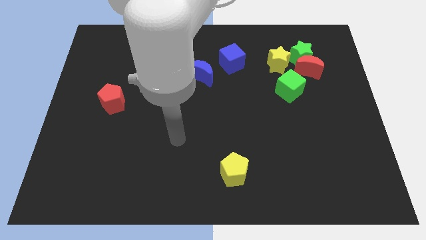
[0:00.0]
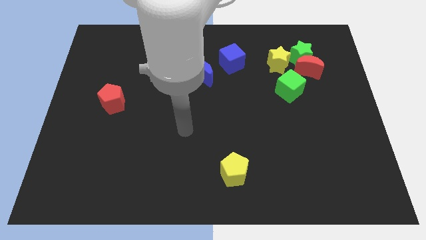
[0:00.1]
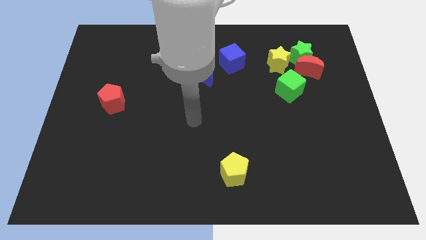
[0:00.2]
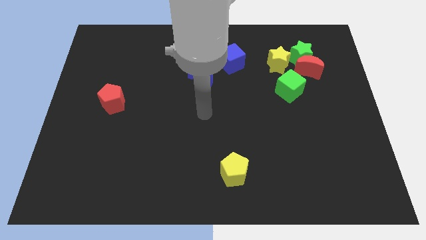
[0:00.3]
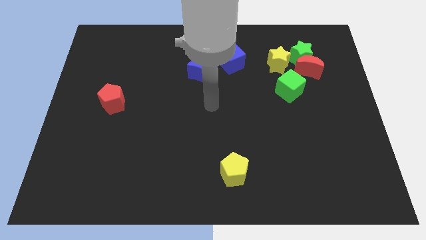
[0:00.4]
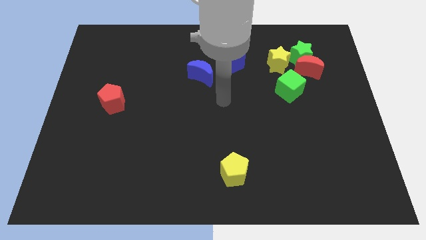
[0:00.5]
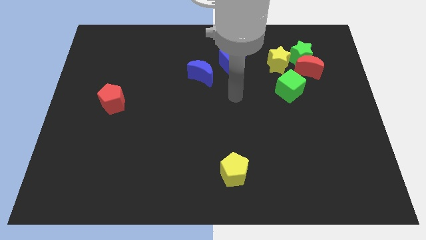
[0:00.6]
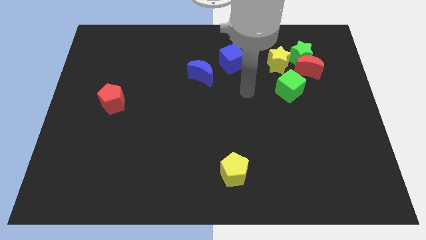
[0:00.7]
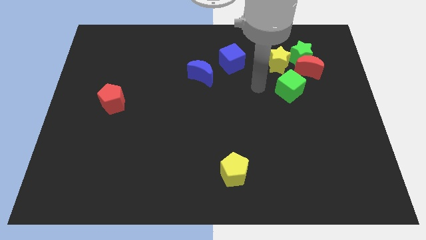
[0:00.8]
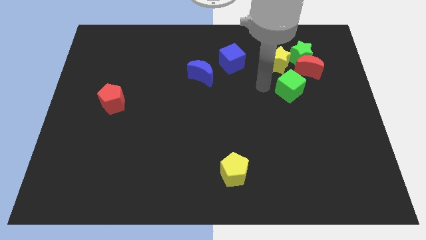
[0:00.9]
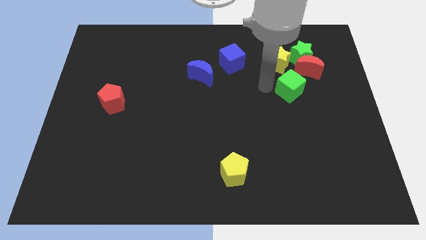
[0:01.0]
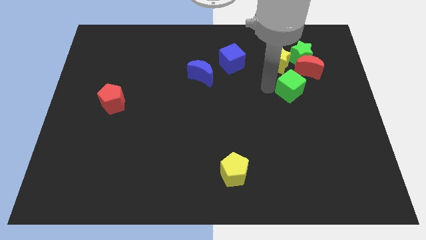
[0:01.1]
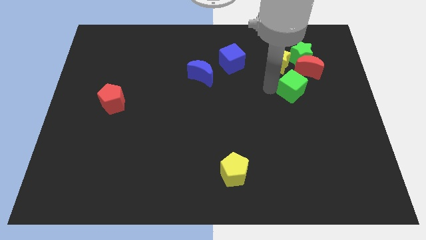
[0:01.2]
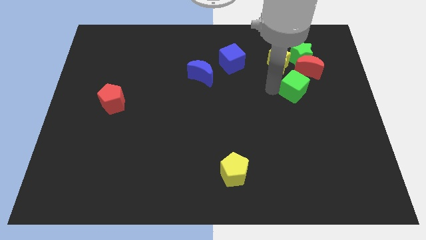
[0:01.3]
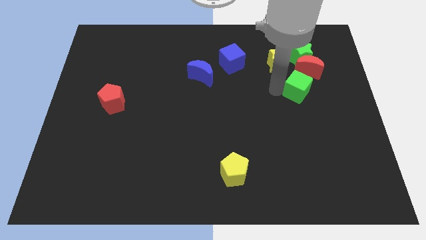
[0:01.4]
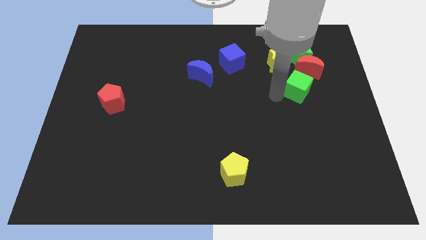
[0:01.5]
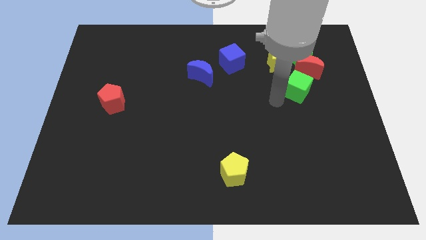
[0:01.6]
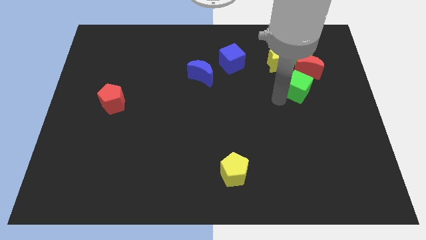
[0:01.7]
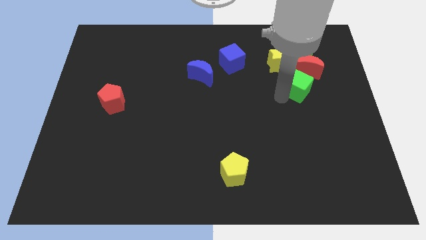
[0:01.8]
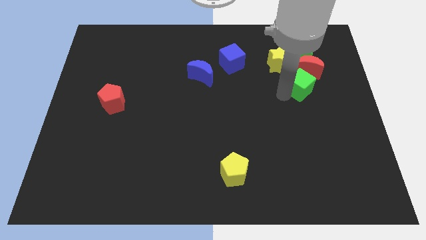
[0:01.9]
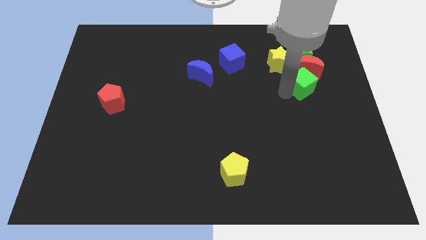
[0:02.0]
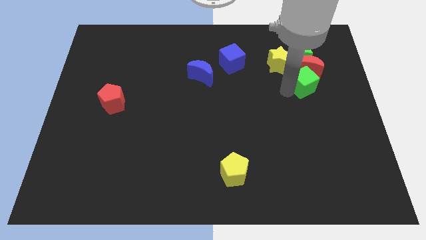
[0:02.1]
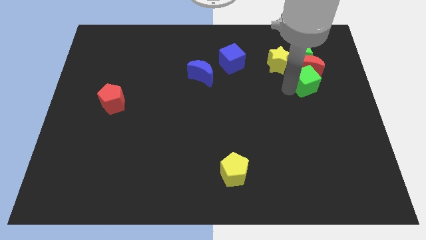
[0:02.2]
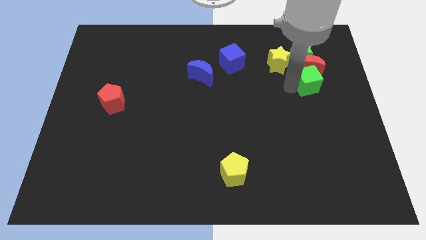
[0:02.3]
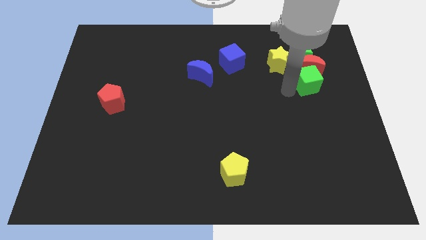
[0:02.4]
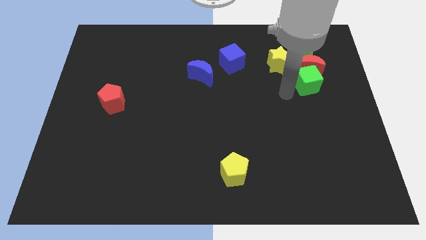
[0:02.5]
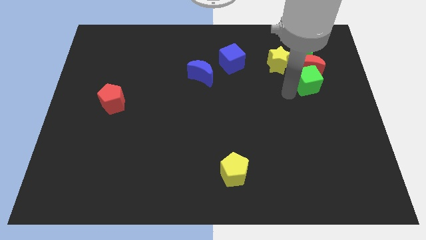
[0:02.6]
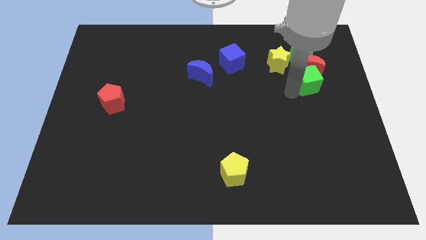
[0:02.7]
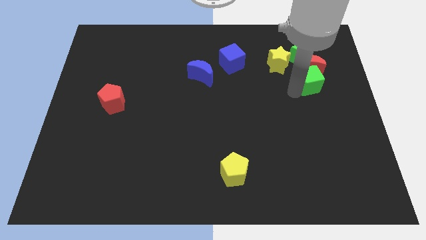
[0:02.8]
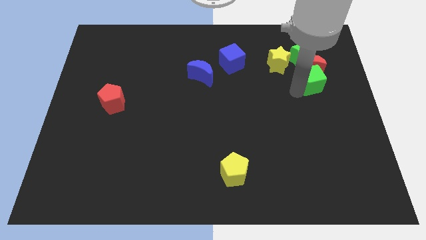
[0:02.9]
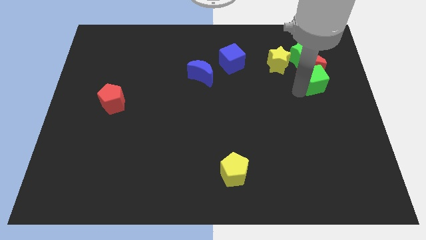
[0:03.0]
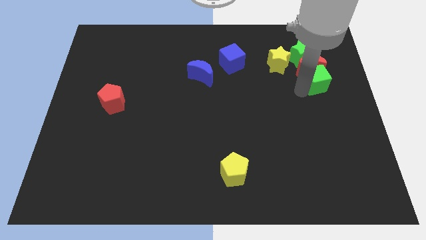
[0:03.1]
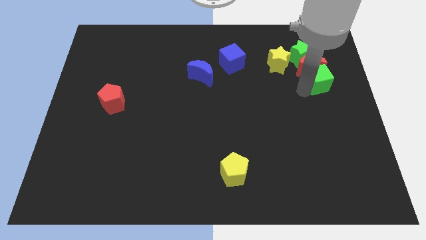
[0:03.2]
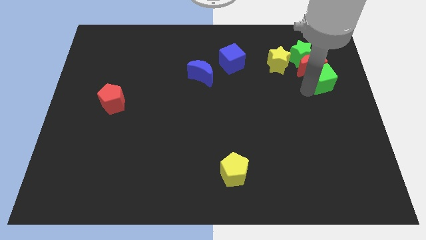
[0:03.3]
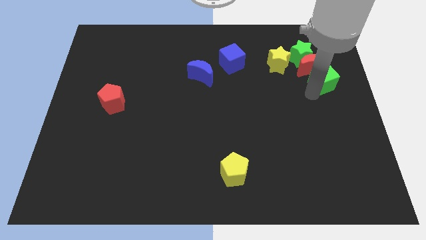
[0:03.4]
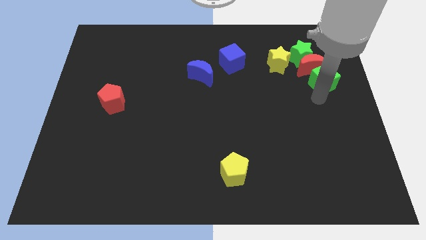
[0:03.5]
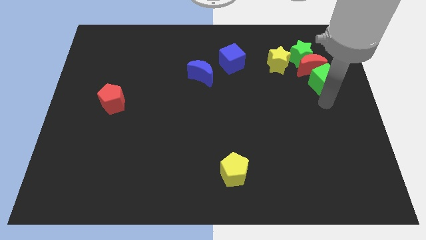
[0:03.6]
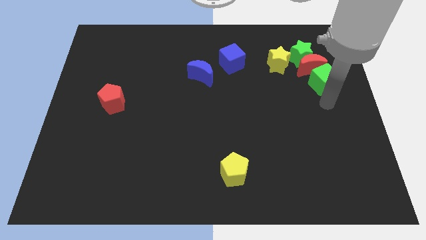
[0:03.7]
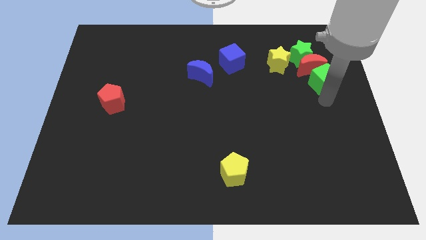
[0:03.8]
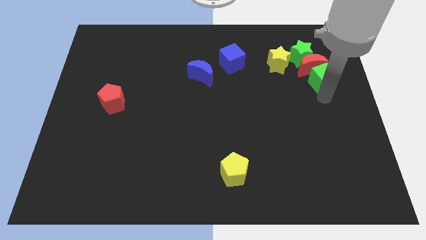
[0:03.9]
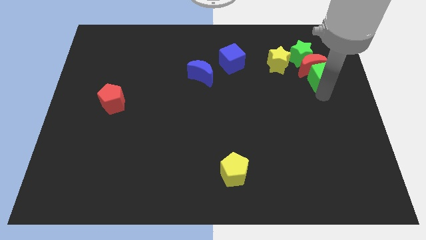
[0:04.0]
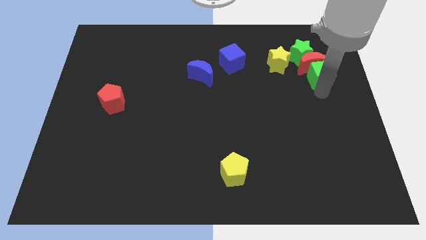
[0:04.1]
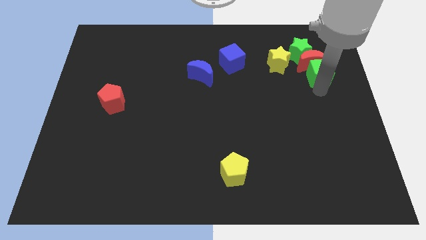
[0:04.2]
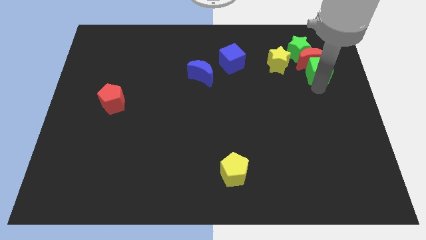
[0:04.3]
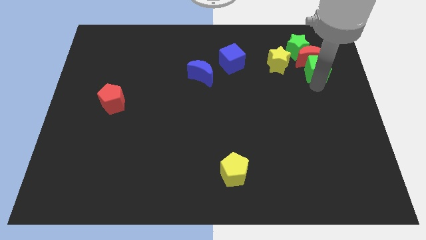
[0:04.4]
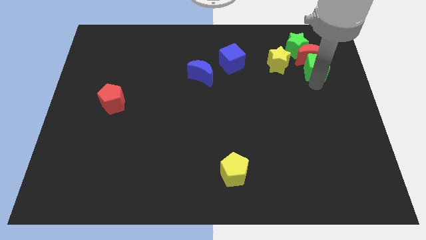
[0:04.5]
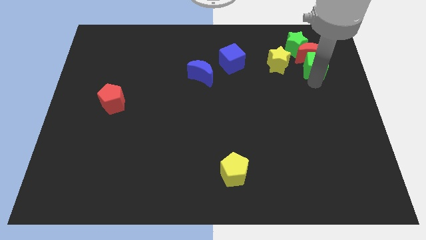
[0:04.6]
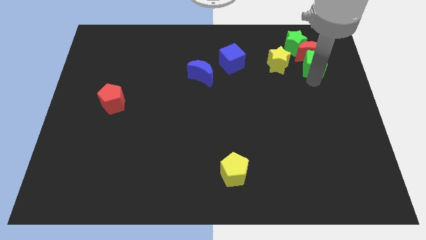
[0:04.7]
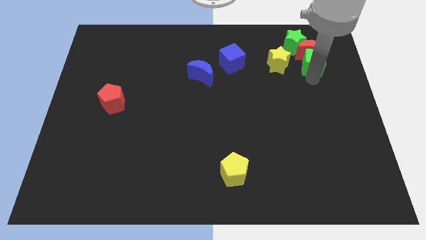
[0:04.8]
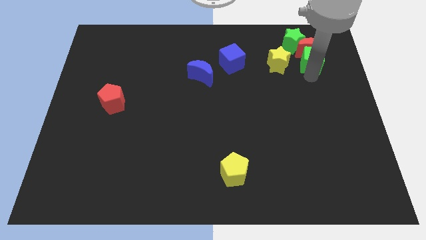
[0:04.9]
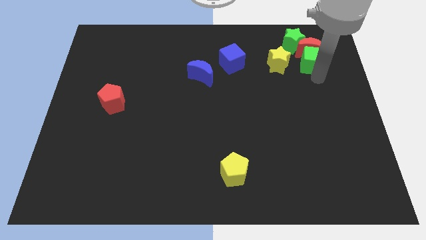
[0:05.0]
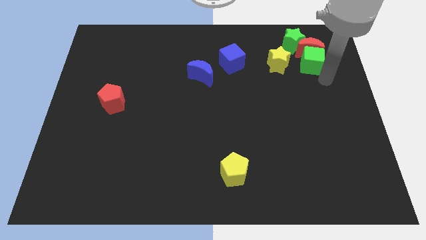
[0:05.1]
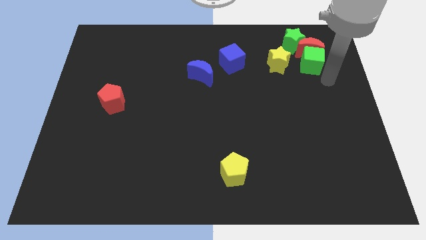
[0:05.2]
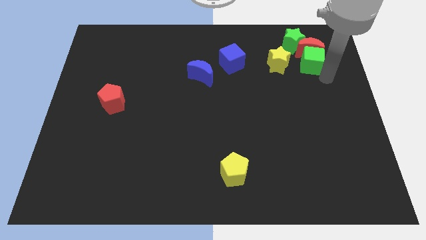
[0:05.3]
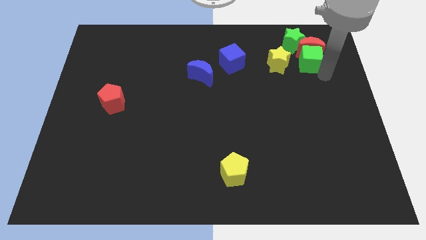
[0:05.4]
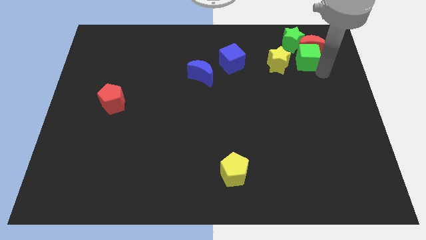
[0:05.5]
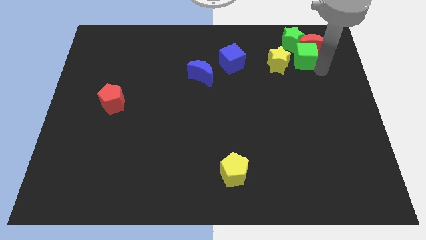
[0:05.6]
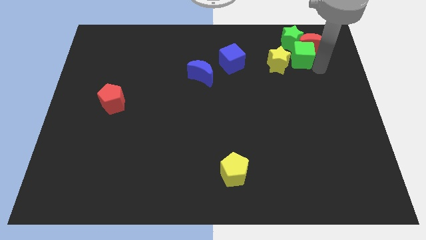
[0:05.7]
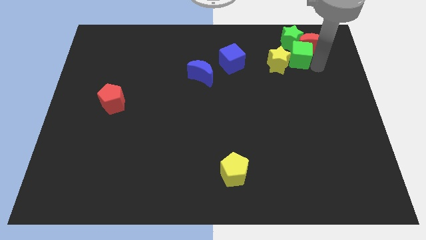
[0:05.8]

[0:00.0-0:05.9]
slide the green cube next to the green star
